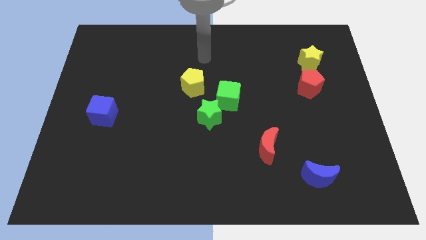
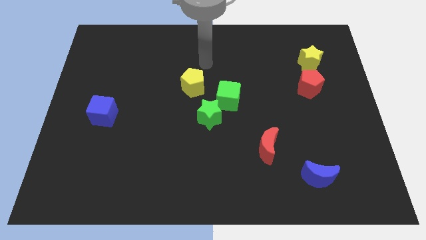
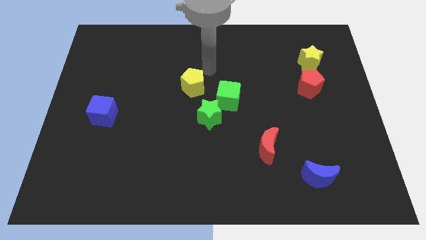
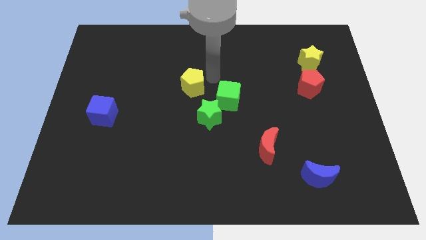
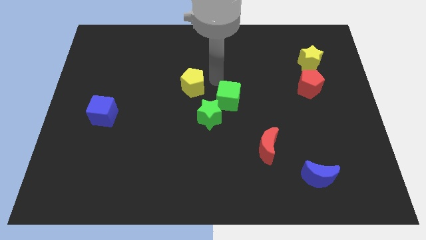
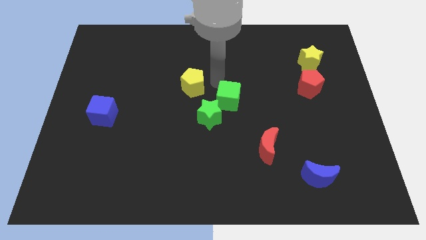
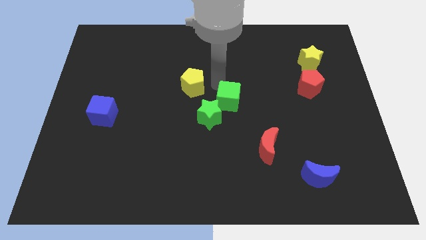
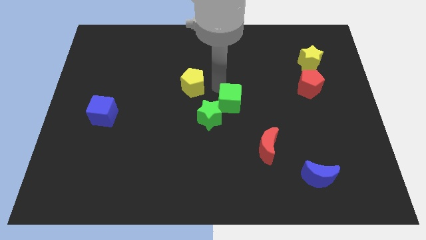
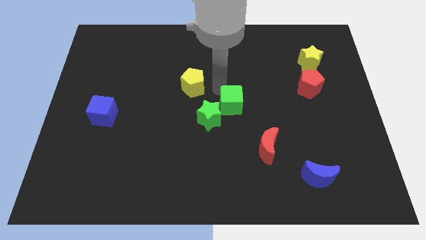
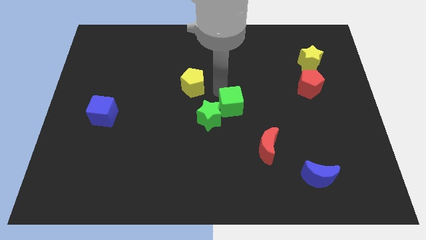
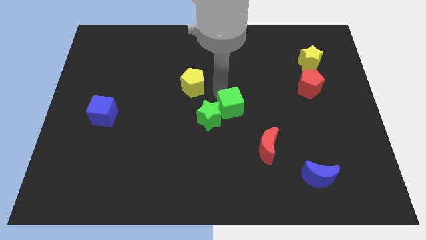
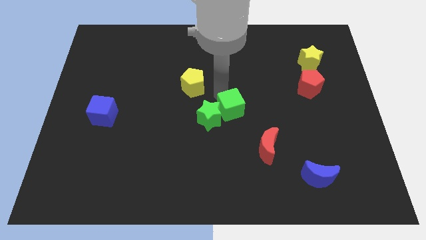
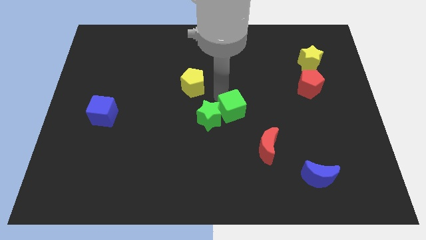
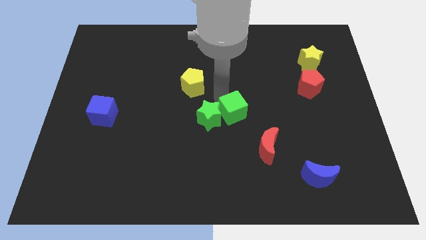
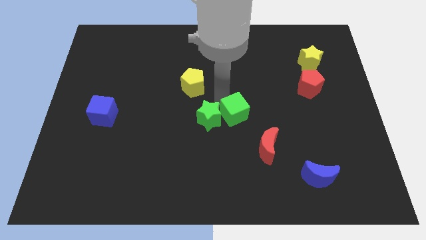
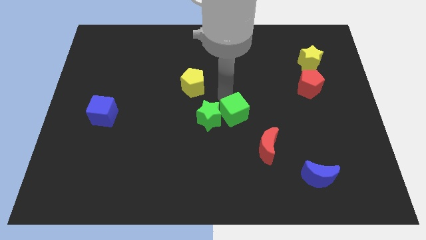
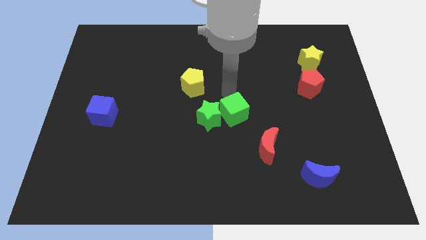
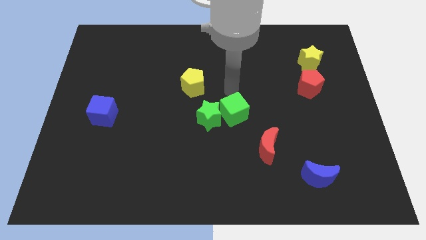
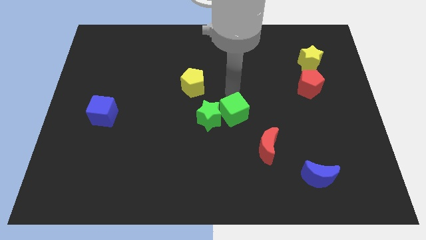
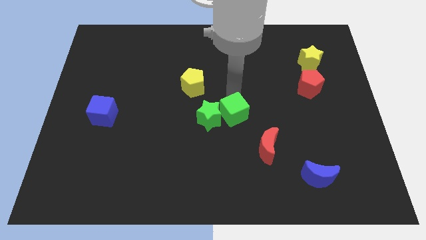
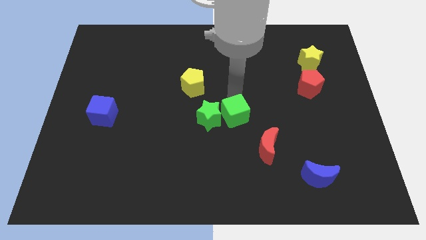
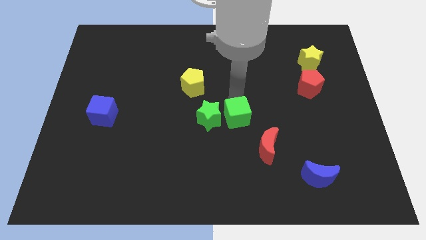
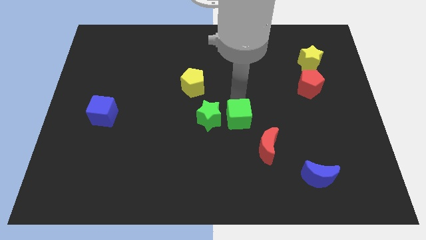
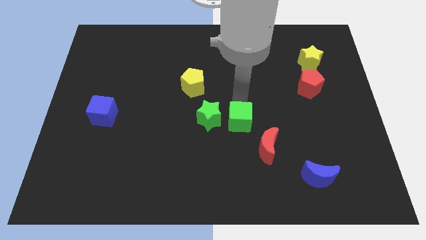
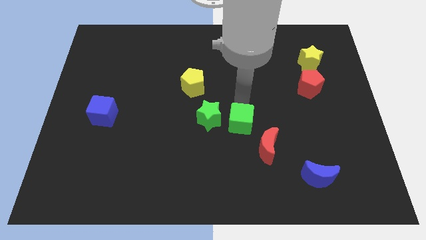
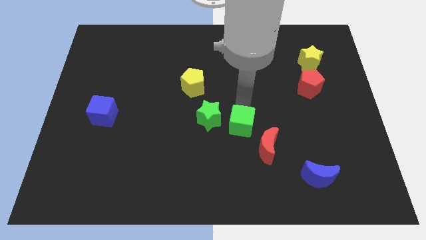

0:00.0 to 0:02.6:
move the green cube down slightly

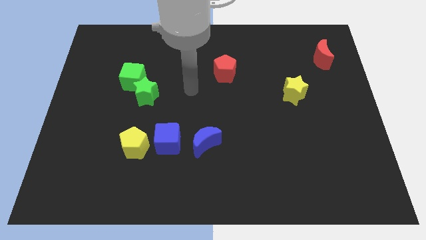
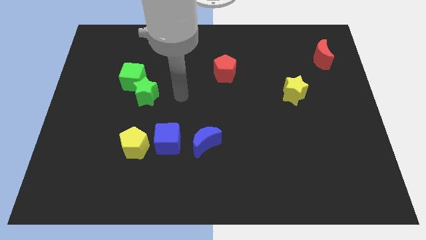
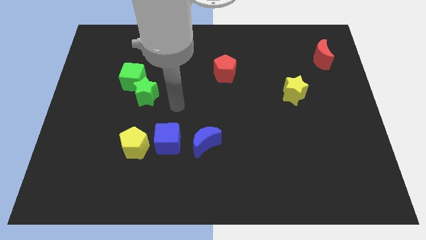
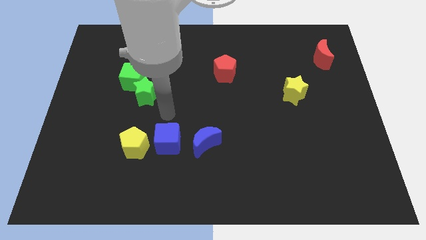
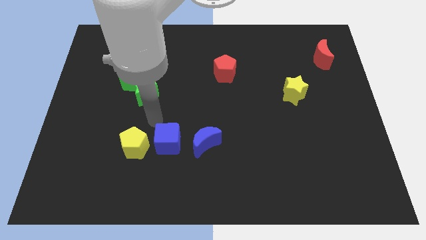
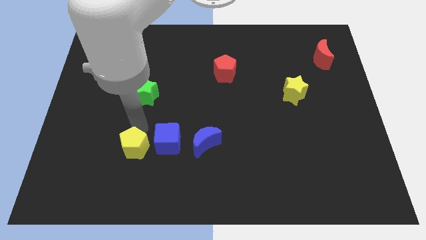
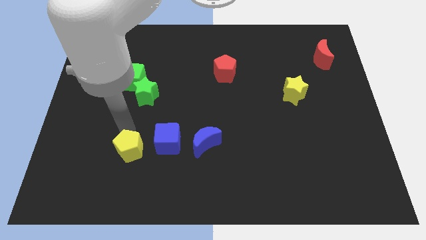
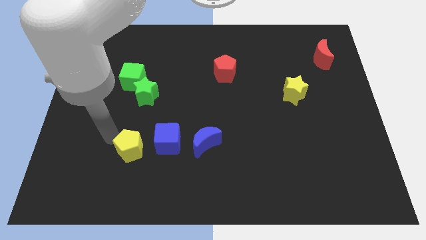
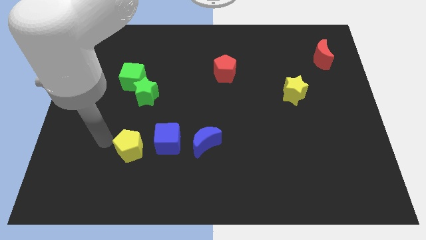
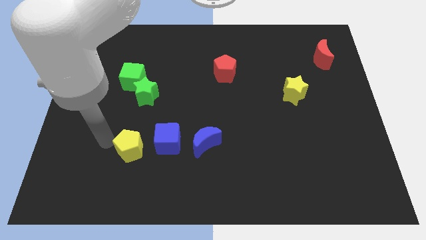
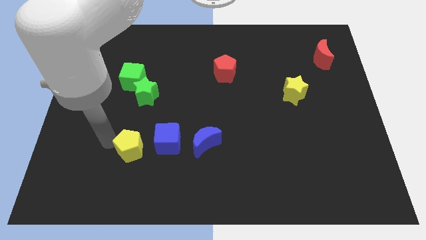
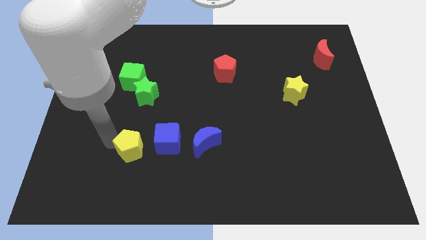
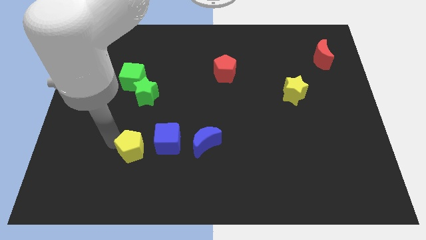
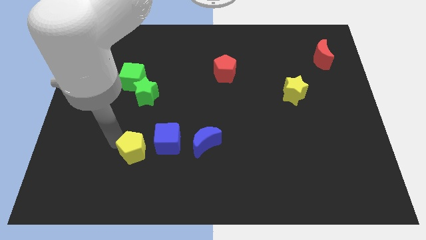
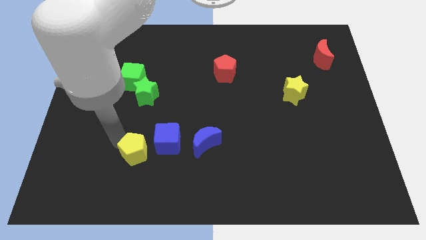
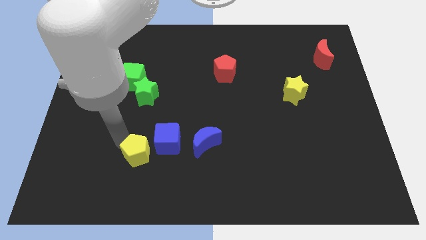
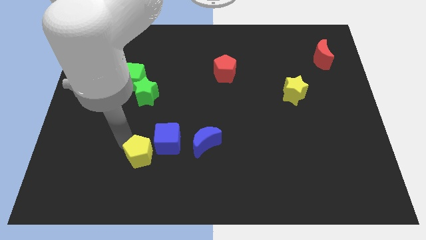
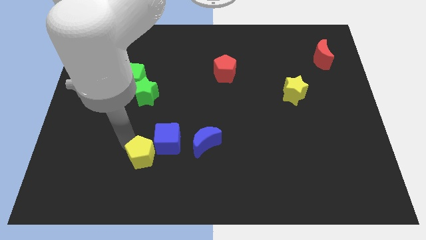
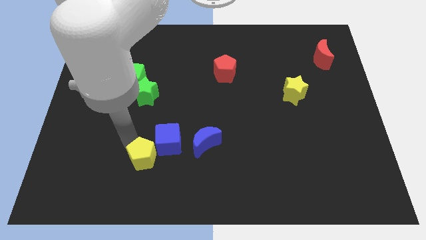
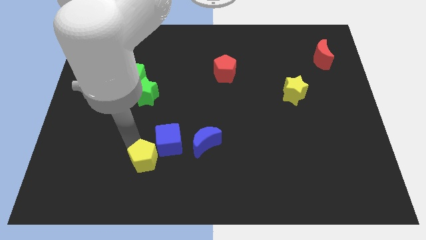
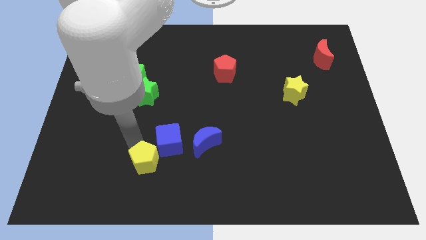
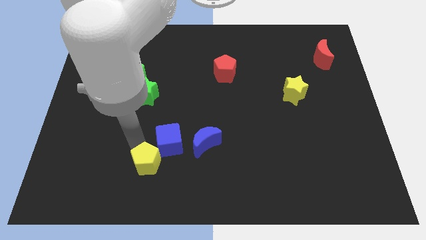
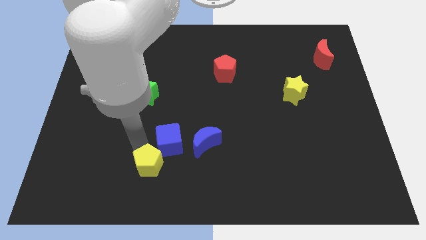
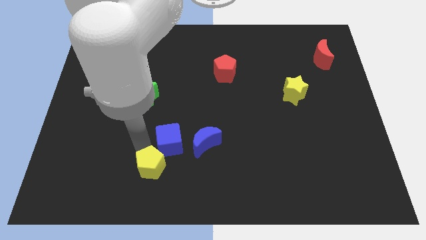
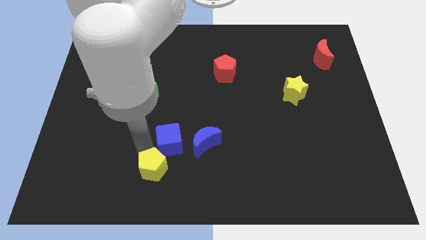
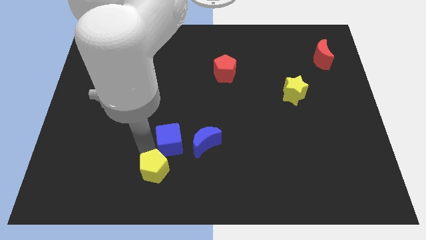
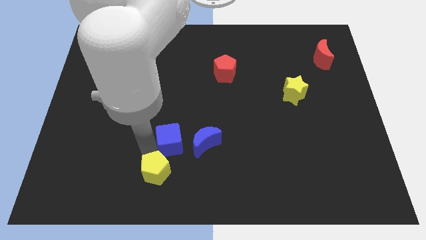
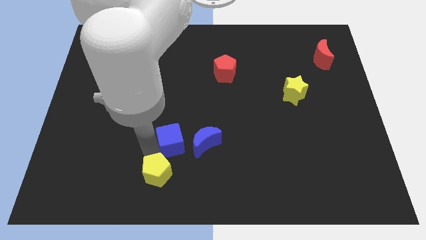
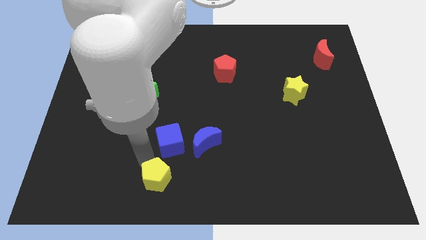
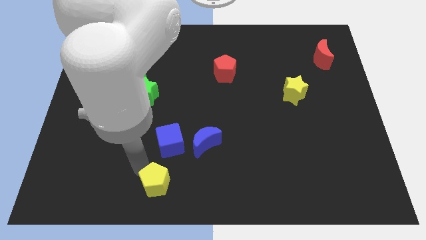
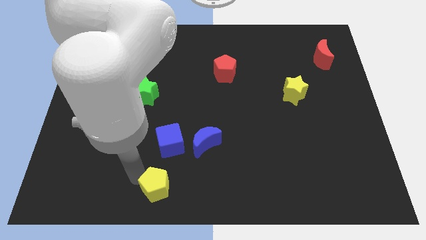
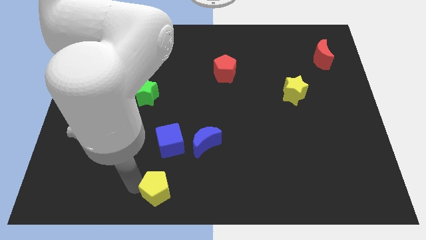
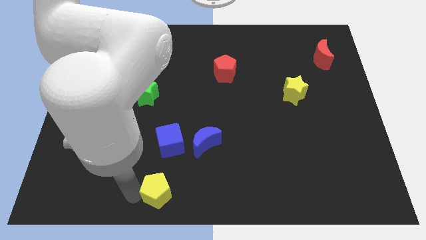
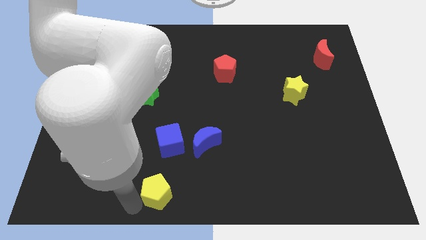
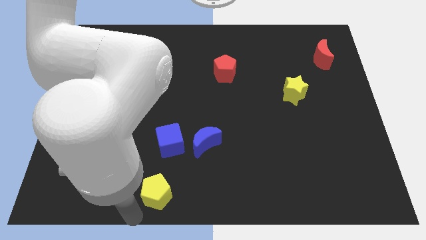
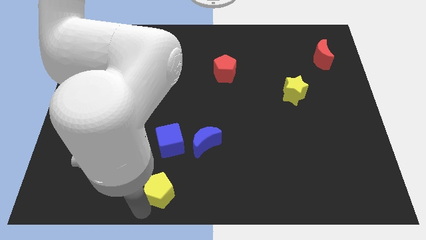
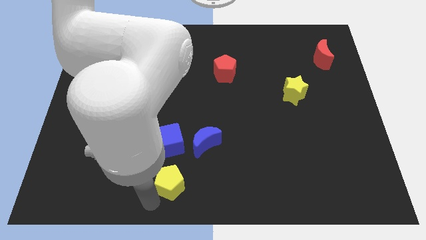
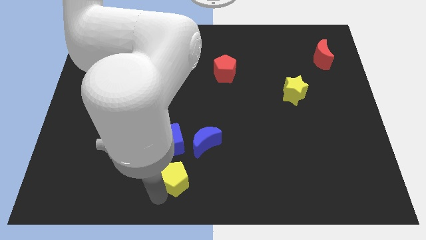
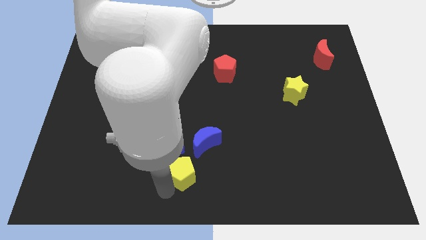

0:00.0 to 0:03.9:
slightly move the yellow pentagon to the right

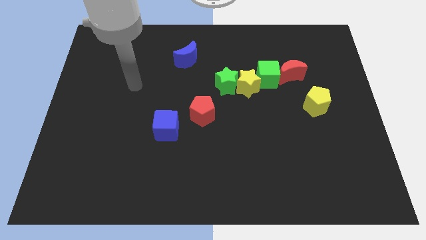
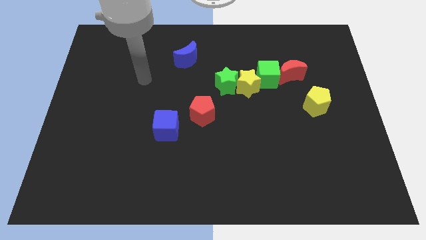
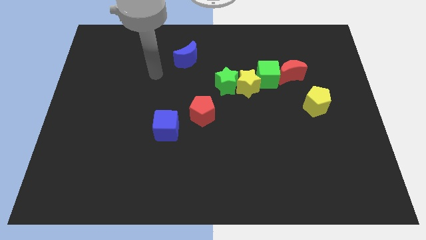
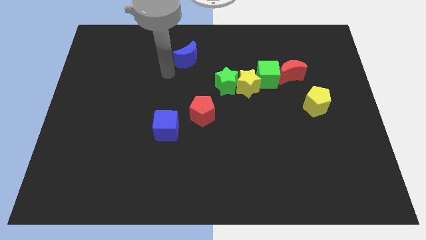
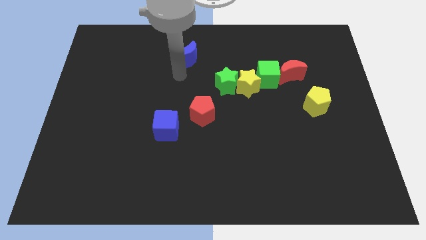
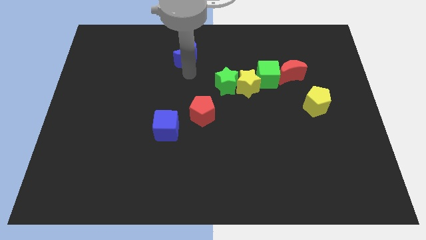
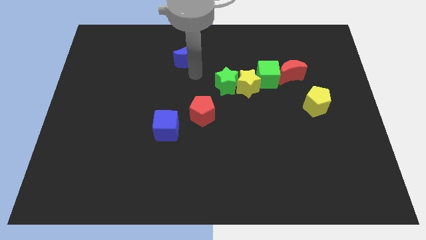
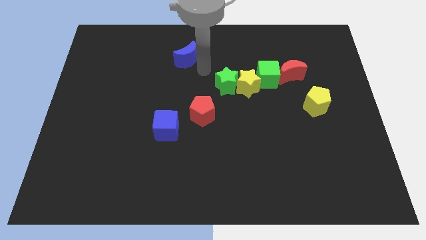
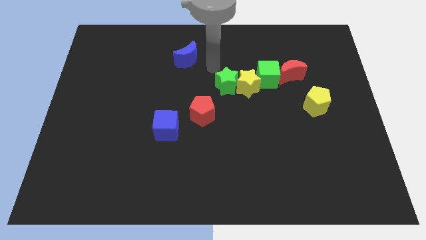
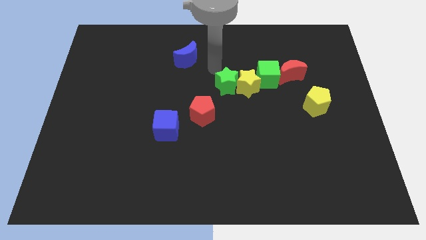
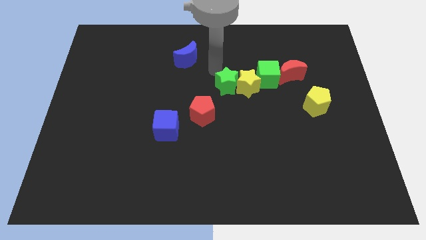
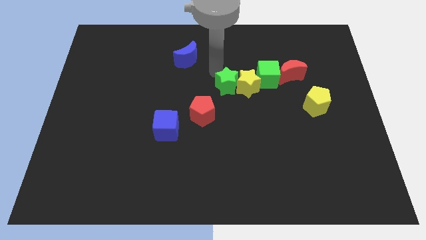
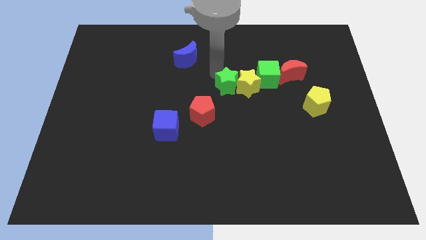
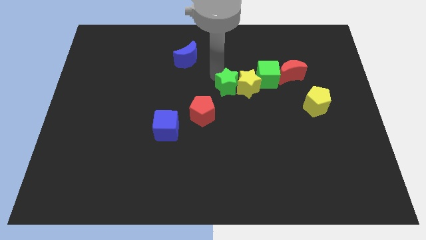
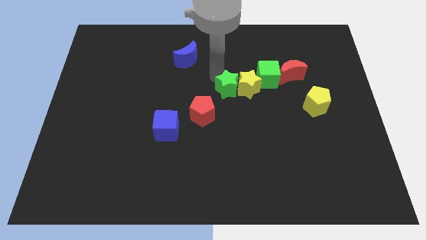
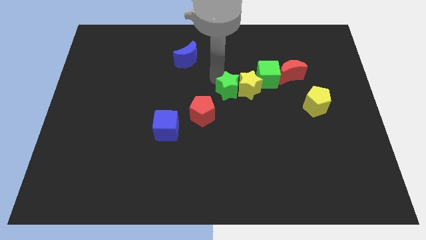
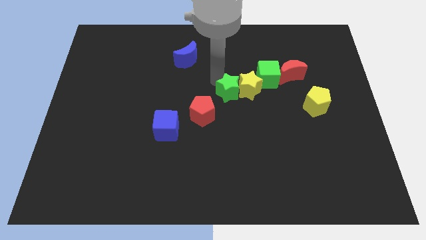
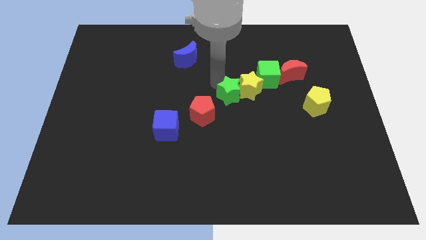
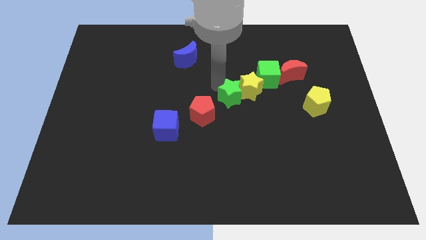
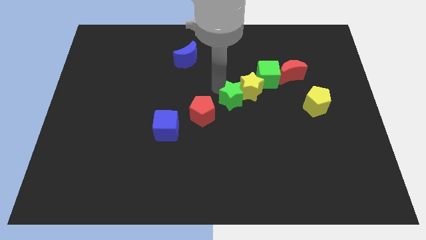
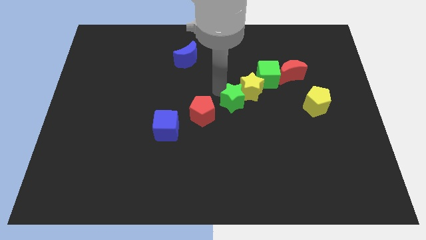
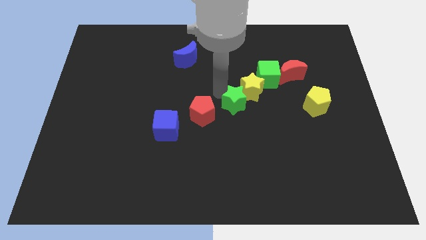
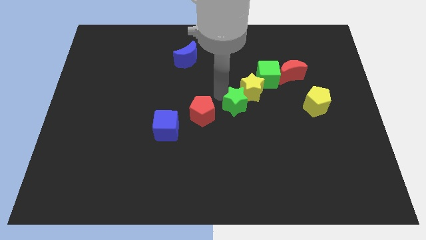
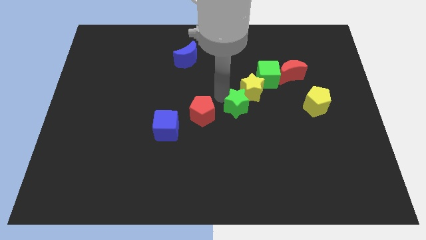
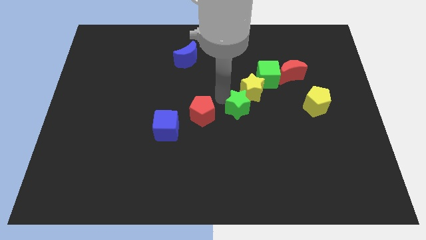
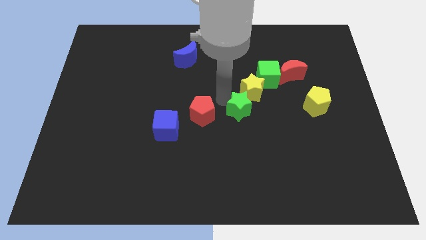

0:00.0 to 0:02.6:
slightly push the green star downwards and right
